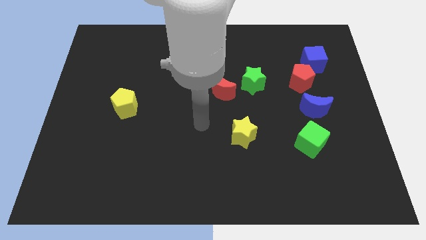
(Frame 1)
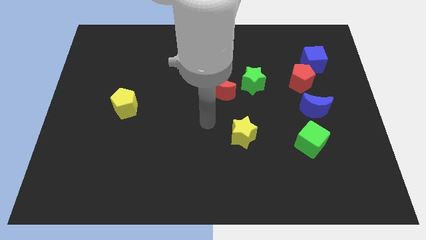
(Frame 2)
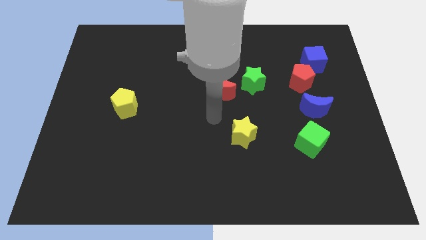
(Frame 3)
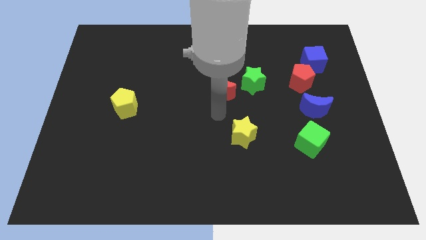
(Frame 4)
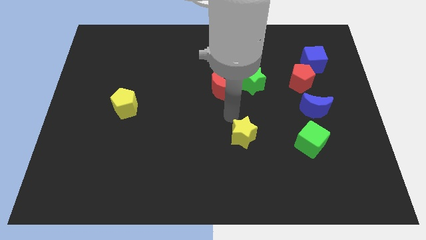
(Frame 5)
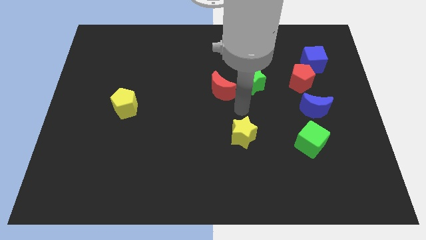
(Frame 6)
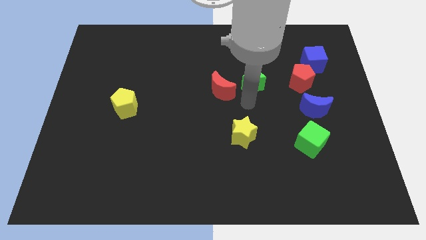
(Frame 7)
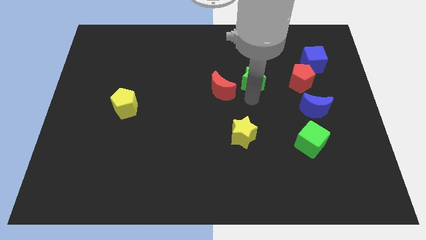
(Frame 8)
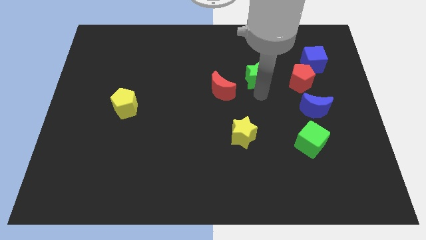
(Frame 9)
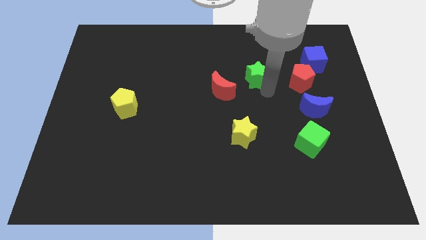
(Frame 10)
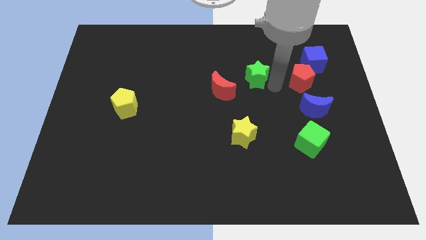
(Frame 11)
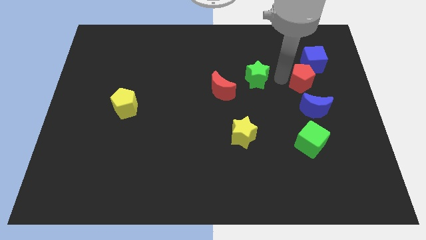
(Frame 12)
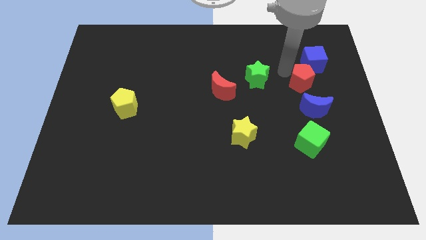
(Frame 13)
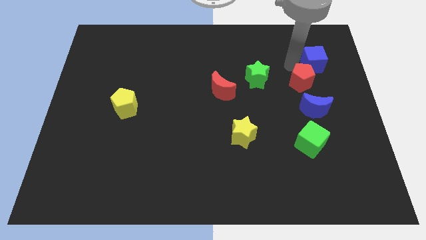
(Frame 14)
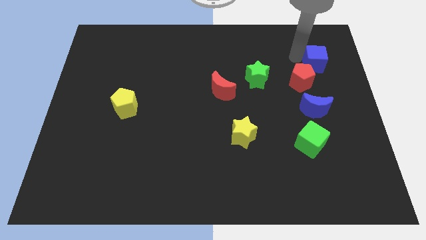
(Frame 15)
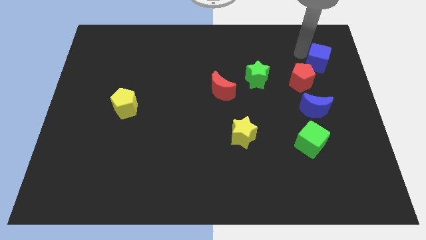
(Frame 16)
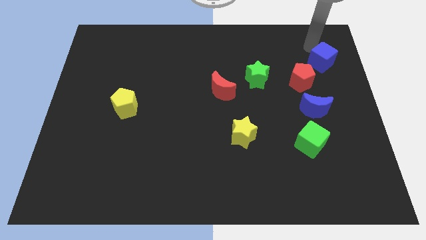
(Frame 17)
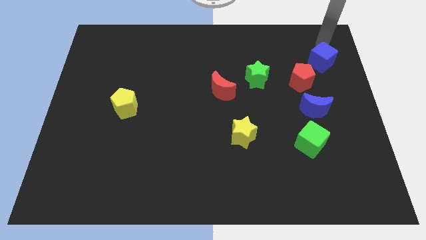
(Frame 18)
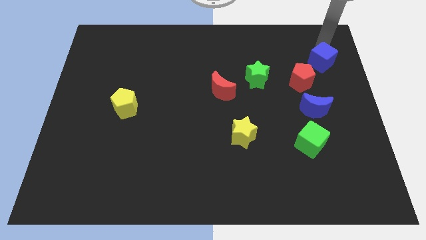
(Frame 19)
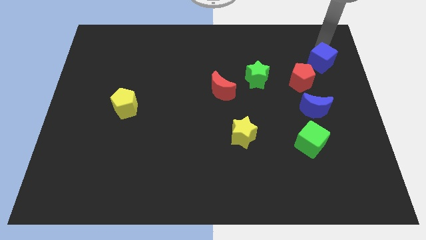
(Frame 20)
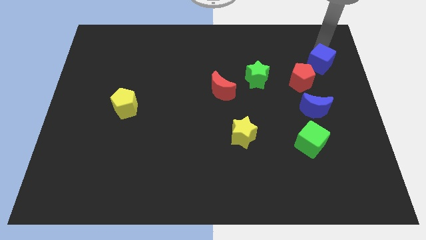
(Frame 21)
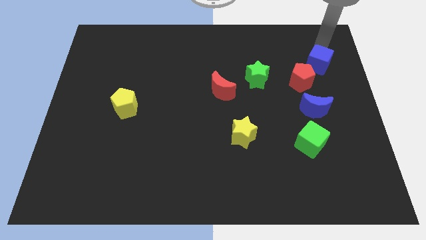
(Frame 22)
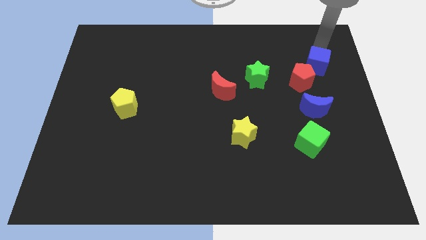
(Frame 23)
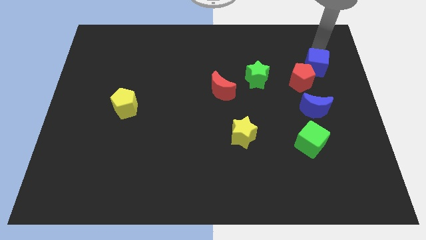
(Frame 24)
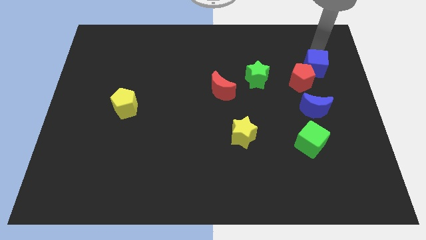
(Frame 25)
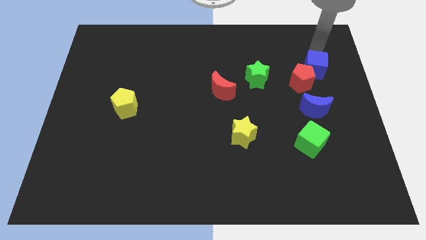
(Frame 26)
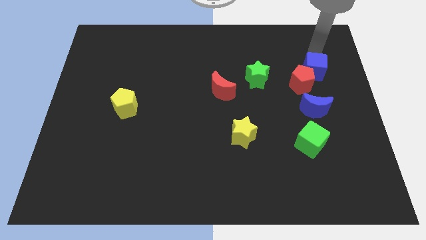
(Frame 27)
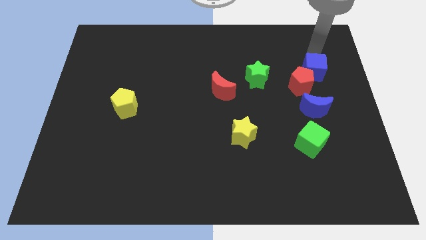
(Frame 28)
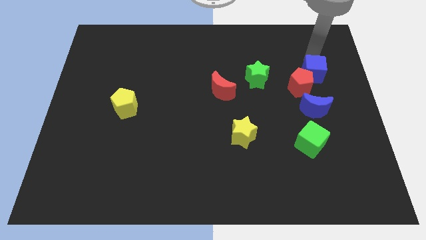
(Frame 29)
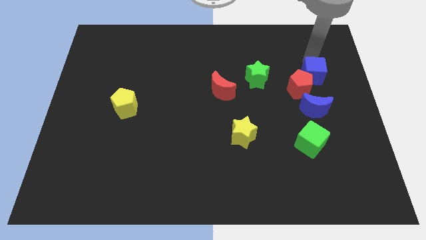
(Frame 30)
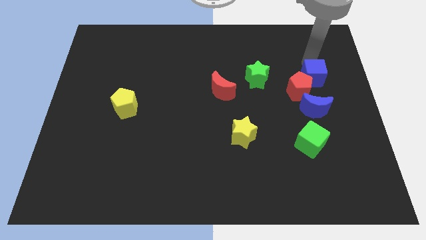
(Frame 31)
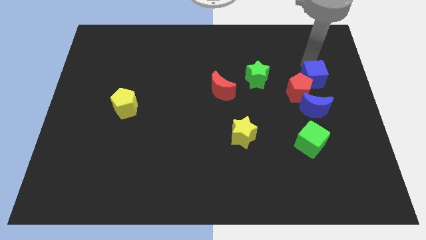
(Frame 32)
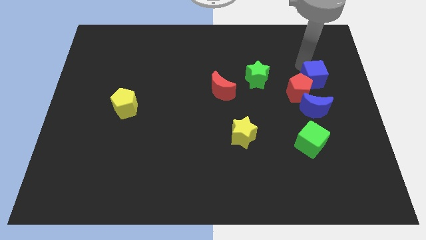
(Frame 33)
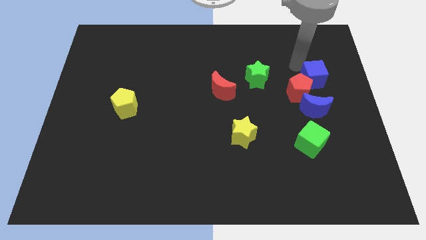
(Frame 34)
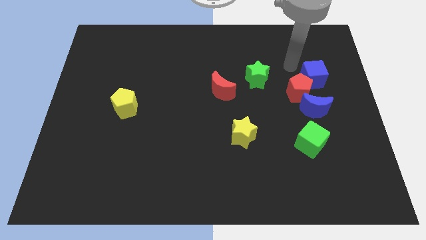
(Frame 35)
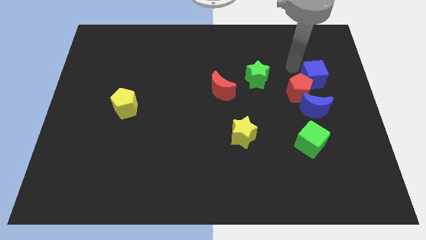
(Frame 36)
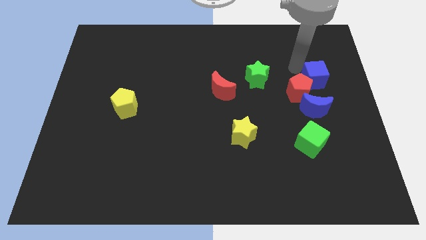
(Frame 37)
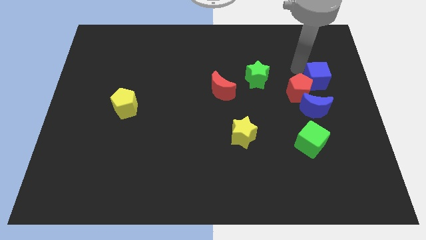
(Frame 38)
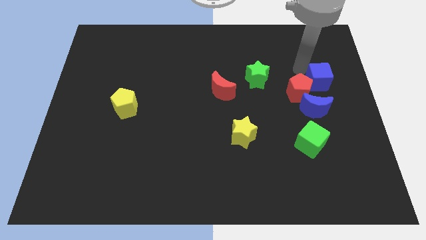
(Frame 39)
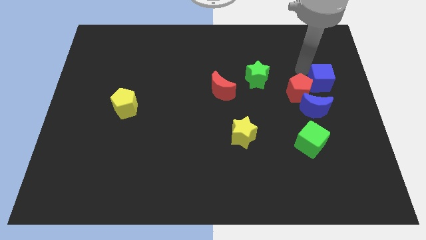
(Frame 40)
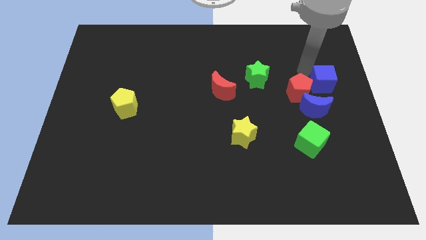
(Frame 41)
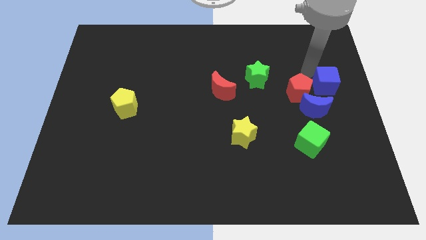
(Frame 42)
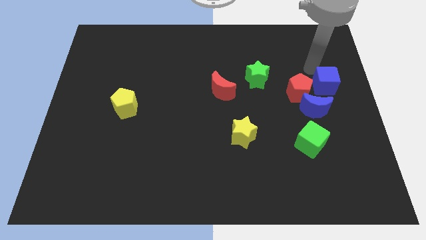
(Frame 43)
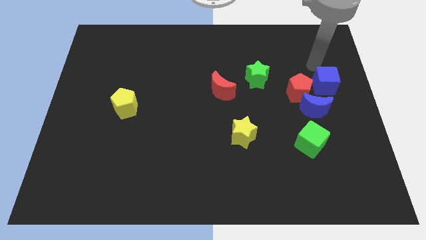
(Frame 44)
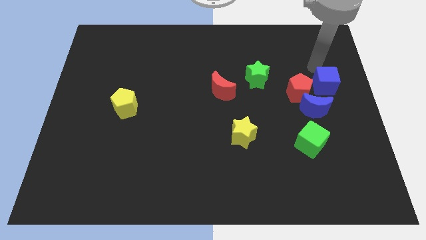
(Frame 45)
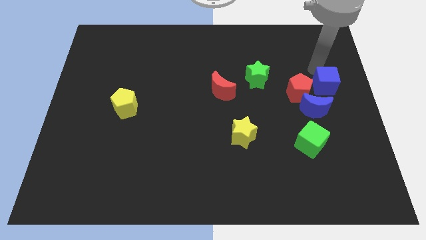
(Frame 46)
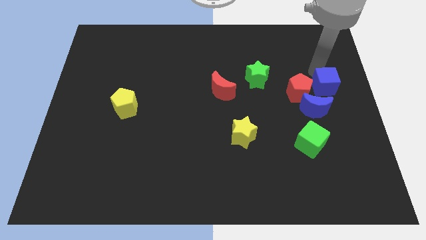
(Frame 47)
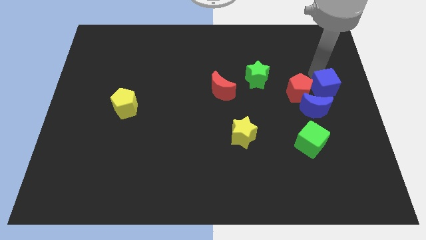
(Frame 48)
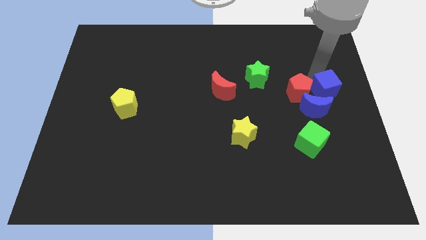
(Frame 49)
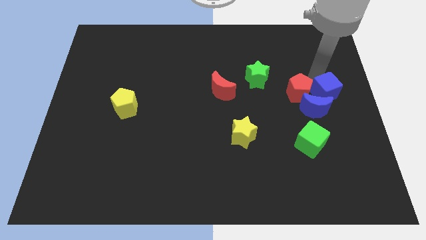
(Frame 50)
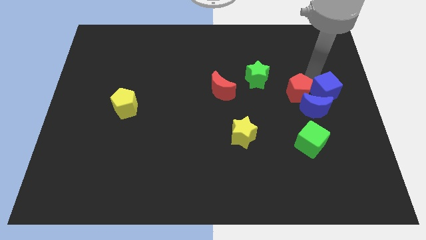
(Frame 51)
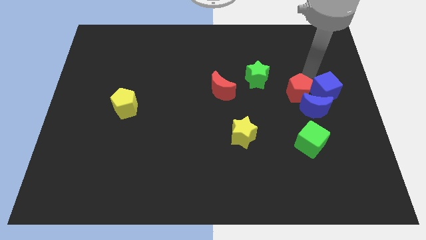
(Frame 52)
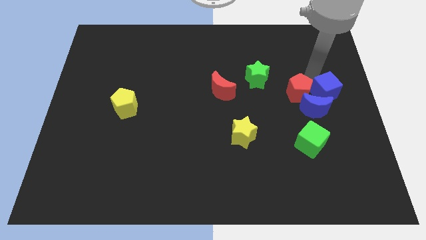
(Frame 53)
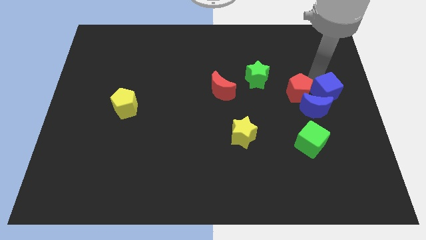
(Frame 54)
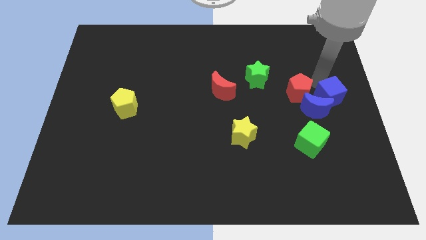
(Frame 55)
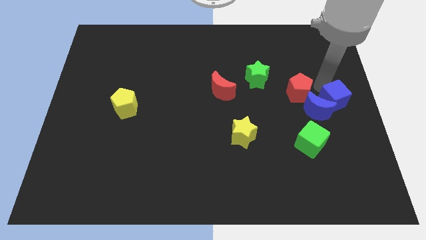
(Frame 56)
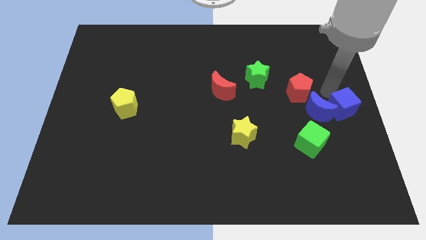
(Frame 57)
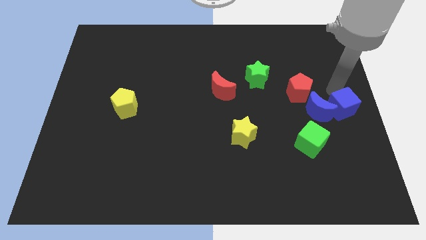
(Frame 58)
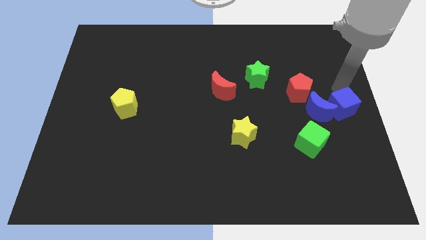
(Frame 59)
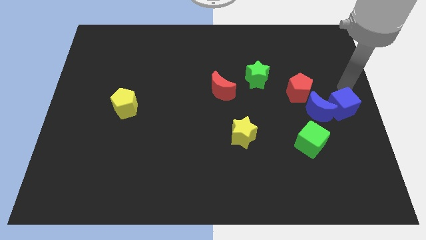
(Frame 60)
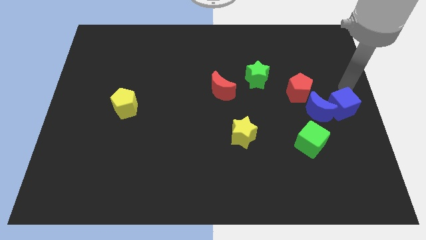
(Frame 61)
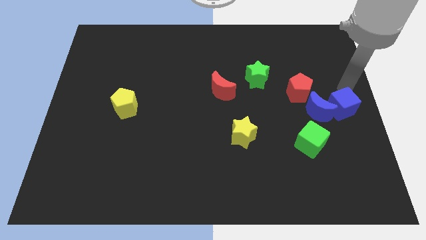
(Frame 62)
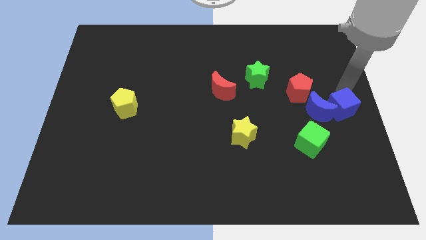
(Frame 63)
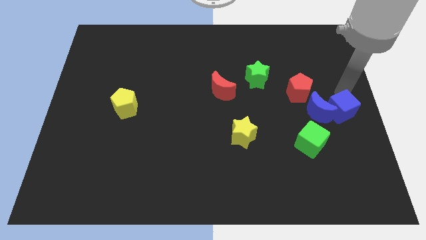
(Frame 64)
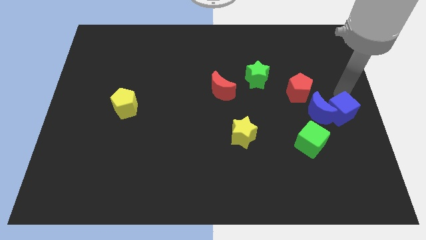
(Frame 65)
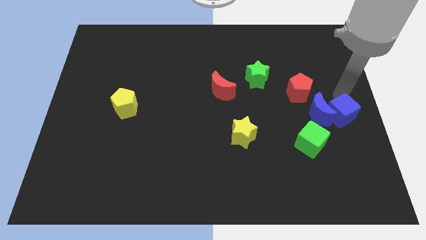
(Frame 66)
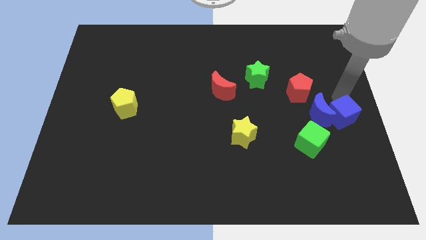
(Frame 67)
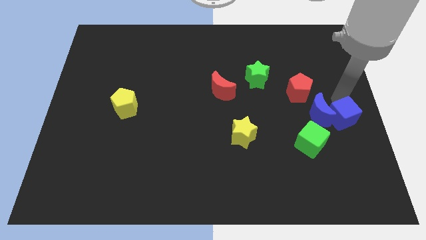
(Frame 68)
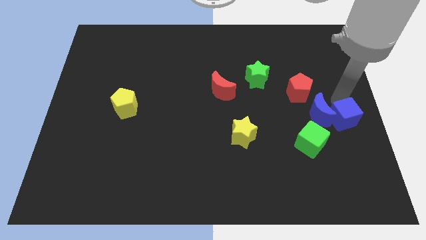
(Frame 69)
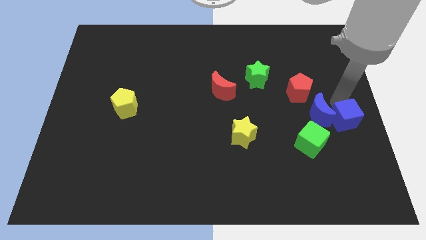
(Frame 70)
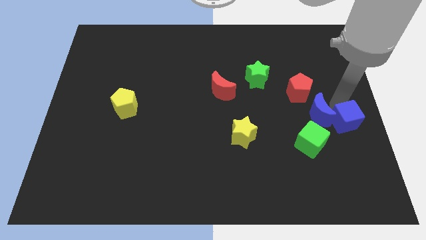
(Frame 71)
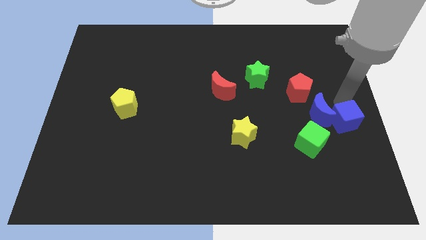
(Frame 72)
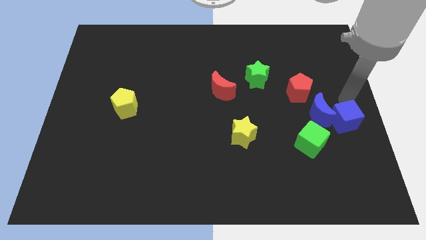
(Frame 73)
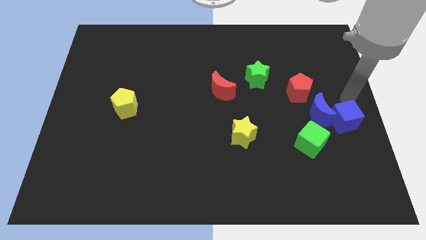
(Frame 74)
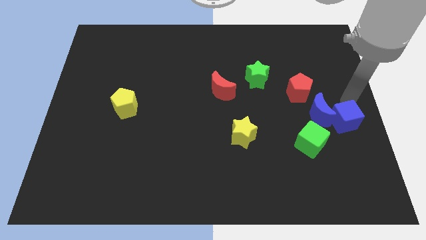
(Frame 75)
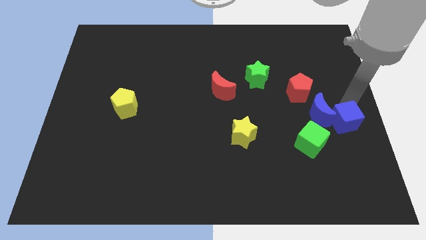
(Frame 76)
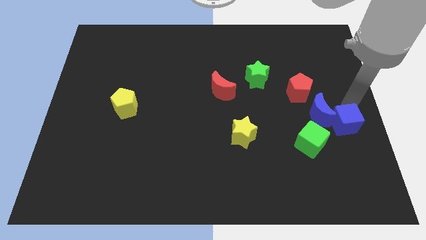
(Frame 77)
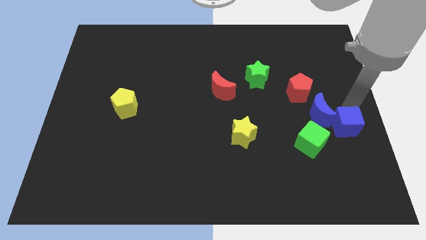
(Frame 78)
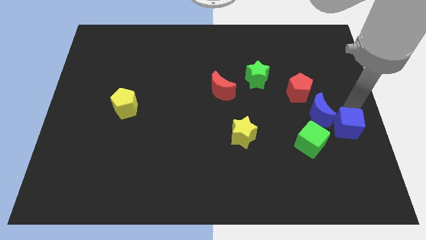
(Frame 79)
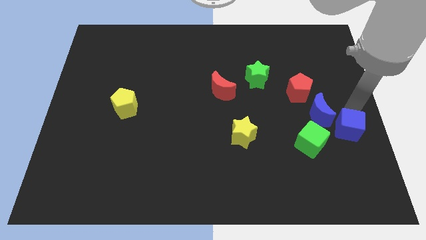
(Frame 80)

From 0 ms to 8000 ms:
slide the blue cube downwards

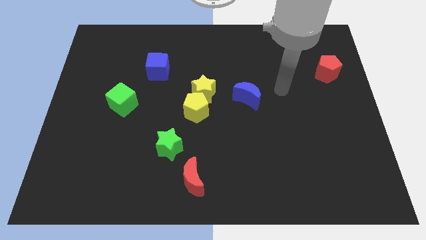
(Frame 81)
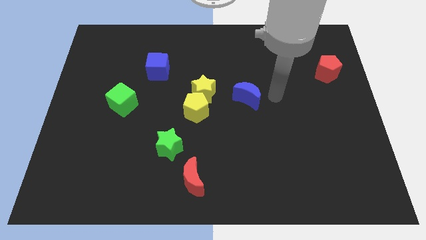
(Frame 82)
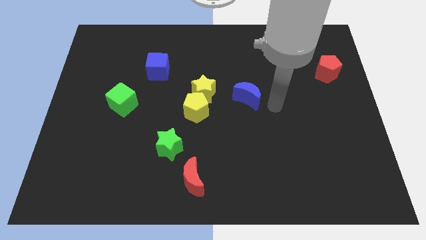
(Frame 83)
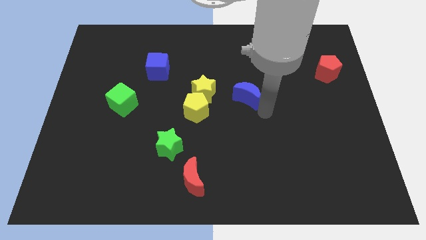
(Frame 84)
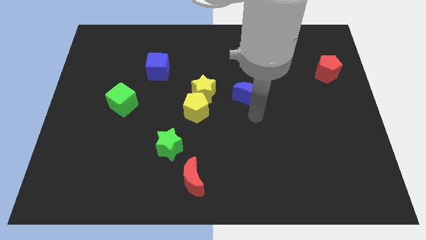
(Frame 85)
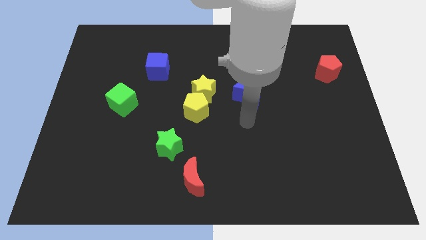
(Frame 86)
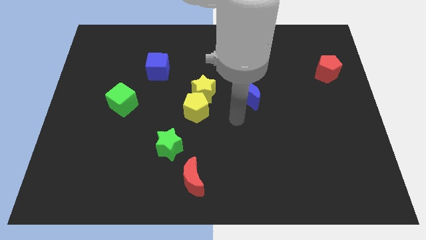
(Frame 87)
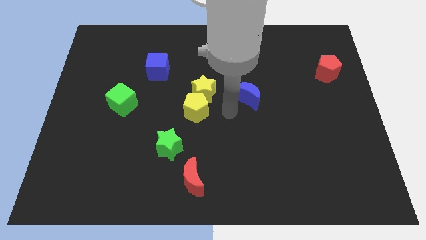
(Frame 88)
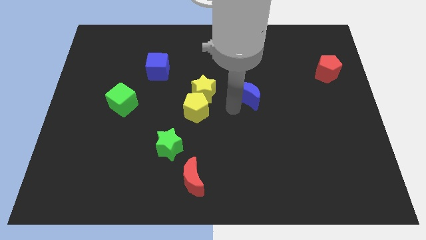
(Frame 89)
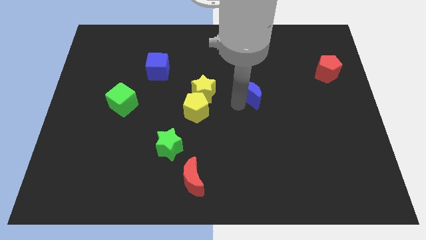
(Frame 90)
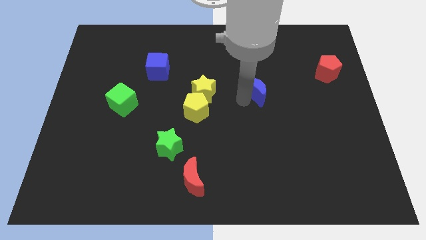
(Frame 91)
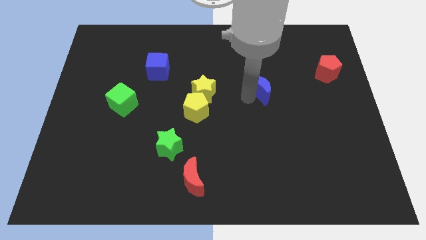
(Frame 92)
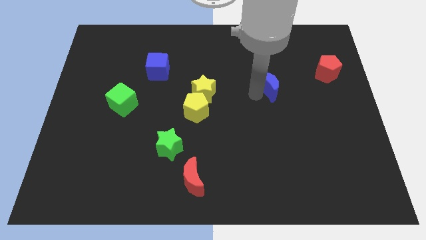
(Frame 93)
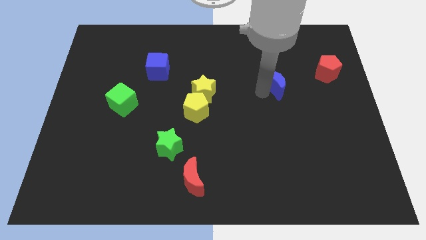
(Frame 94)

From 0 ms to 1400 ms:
push the blue moon somewhat up and to the right diagonally
